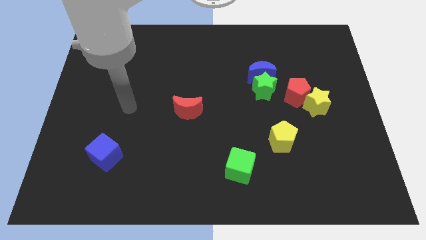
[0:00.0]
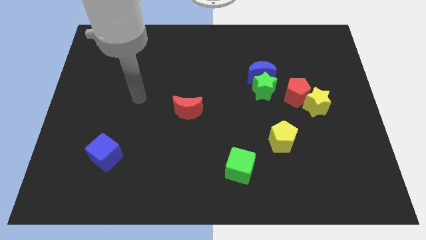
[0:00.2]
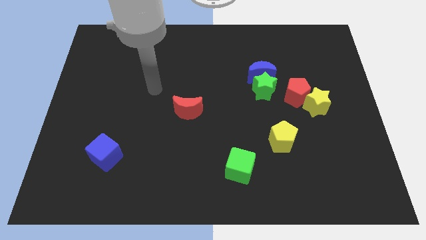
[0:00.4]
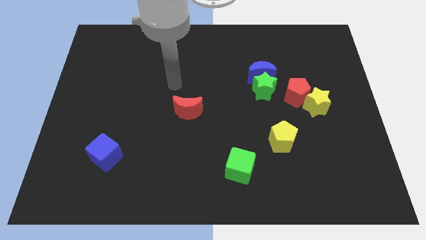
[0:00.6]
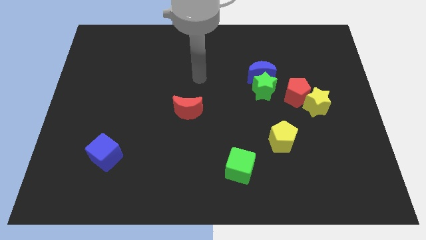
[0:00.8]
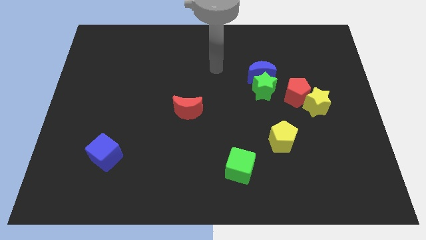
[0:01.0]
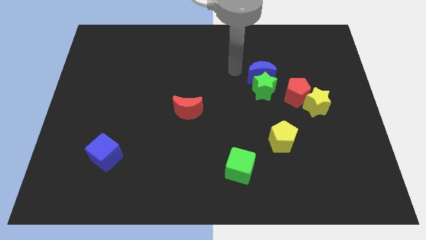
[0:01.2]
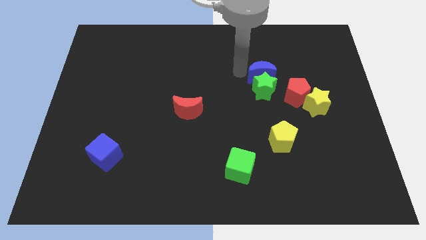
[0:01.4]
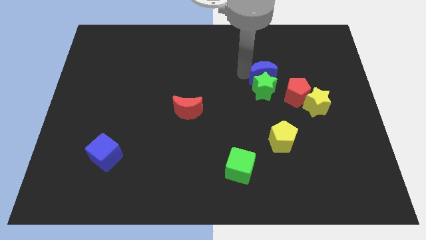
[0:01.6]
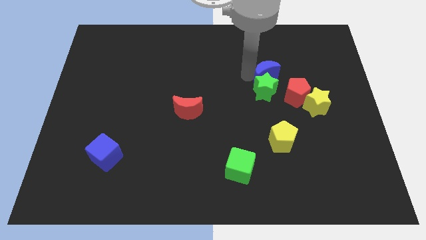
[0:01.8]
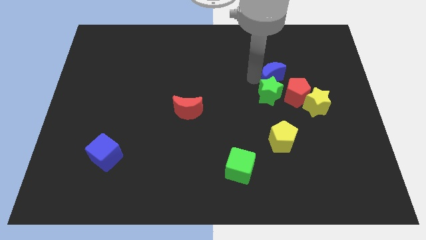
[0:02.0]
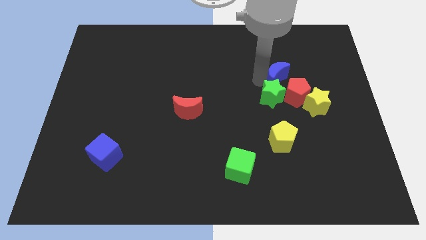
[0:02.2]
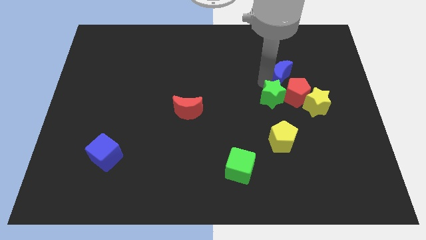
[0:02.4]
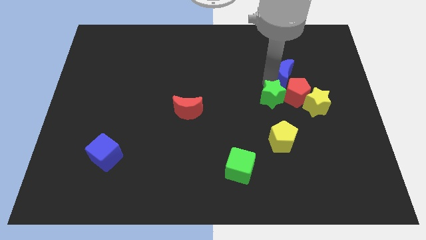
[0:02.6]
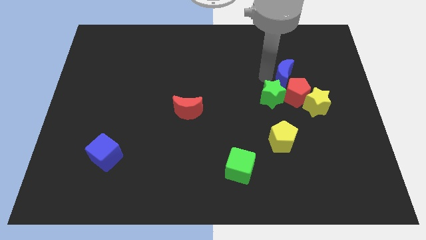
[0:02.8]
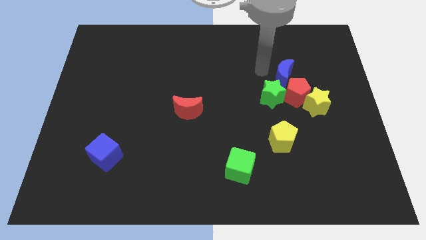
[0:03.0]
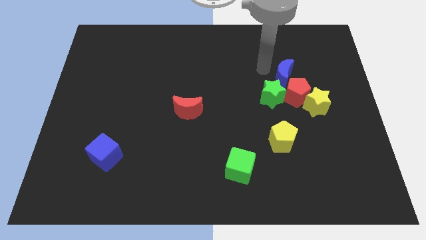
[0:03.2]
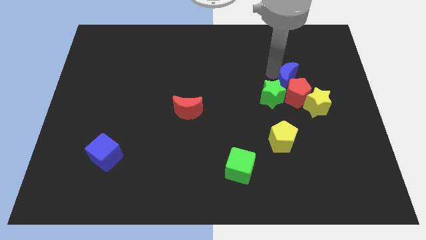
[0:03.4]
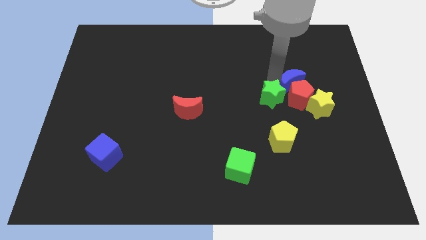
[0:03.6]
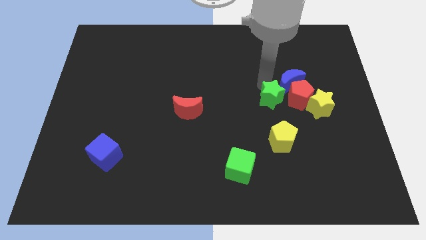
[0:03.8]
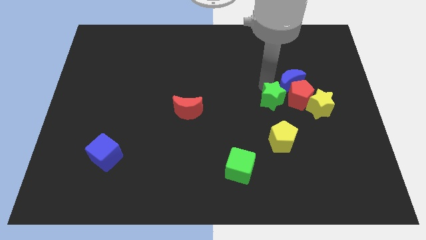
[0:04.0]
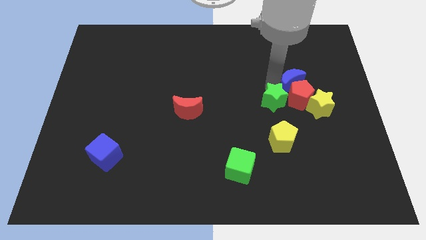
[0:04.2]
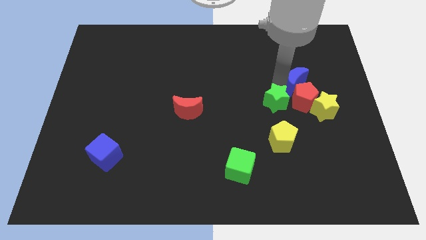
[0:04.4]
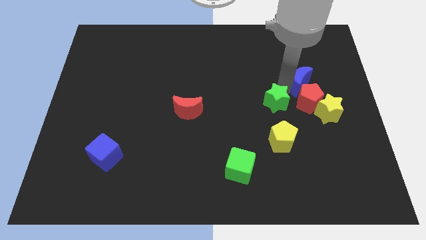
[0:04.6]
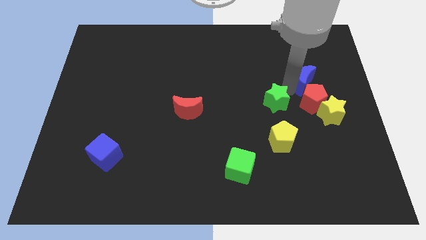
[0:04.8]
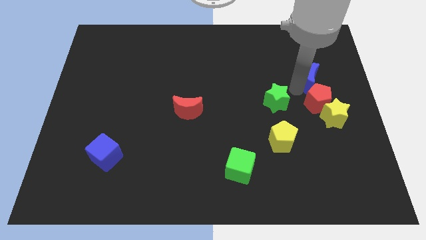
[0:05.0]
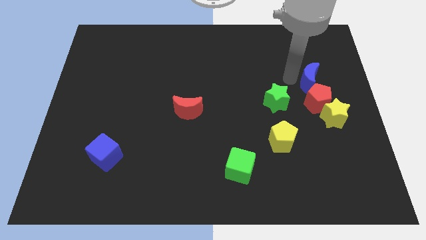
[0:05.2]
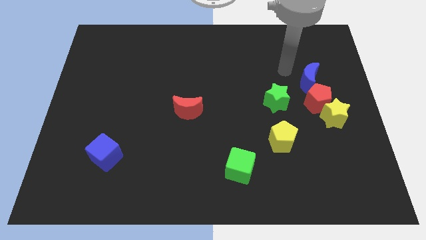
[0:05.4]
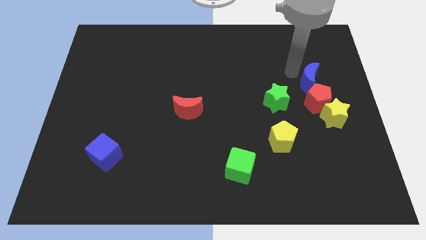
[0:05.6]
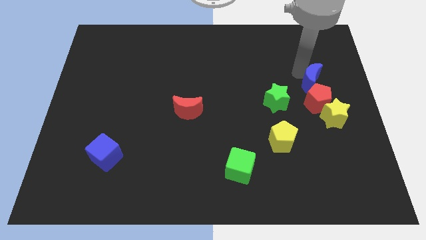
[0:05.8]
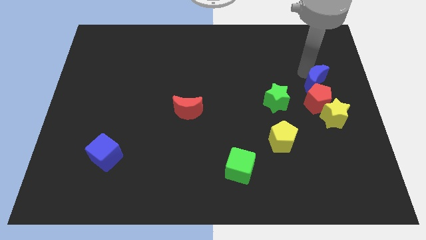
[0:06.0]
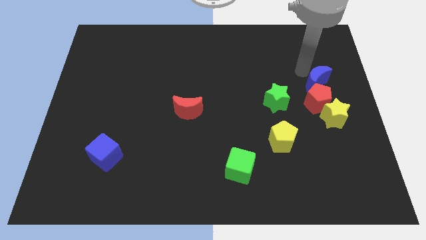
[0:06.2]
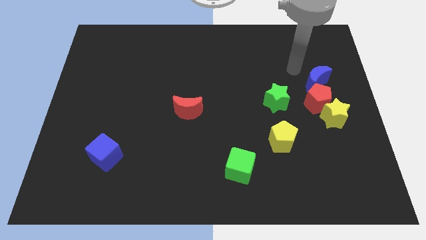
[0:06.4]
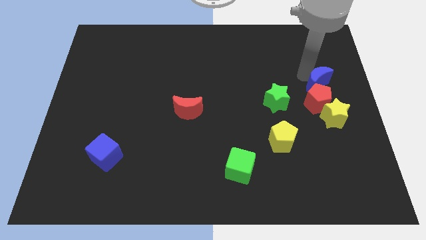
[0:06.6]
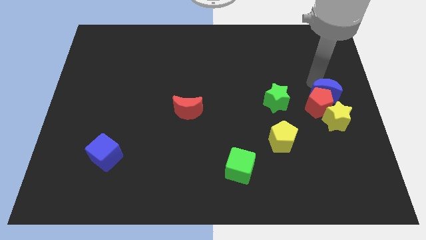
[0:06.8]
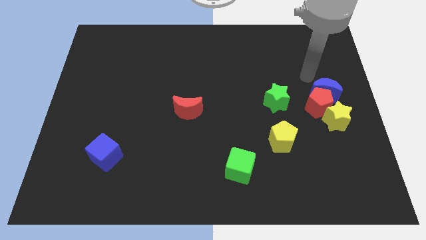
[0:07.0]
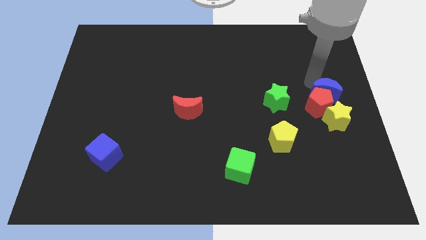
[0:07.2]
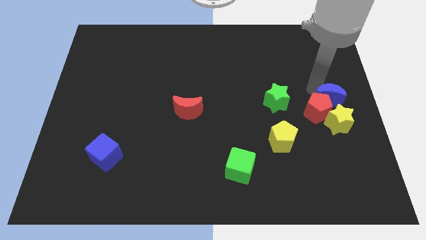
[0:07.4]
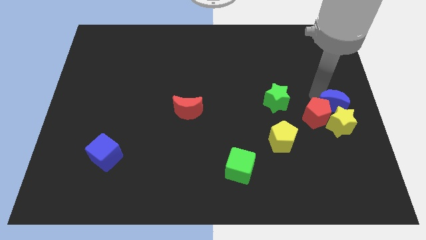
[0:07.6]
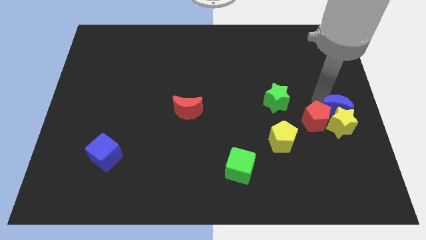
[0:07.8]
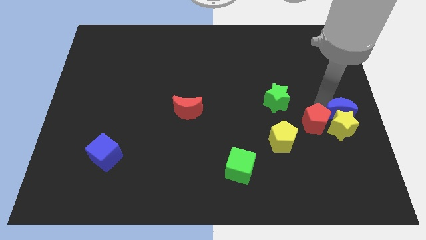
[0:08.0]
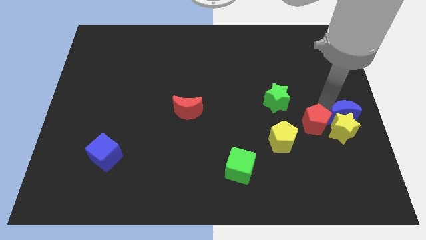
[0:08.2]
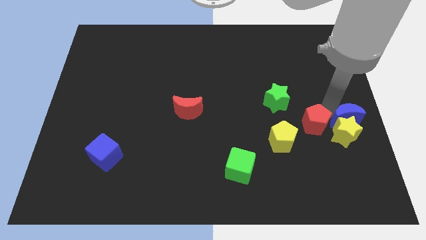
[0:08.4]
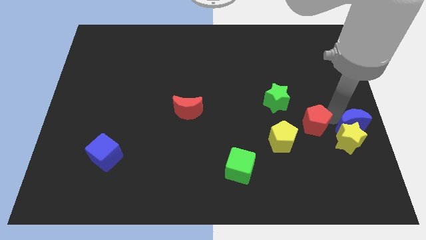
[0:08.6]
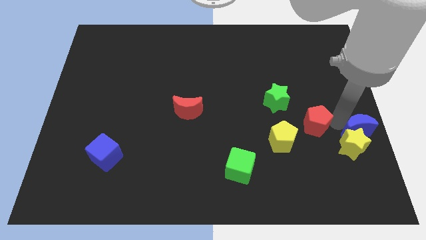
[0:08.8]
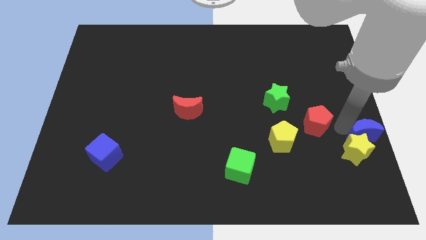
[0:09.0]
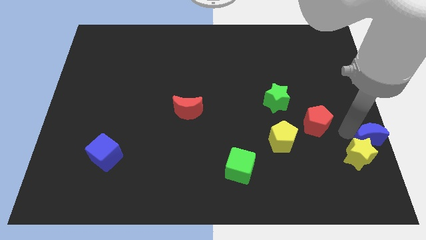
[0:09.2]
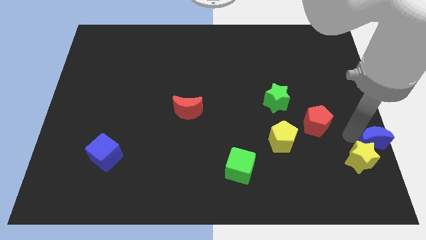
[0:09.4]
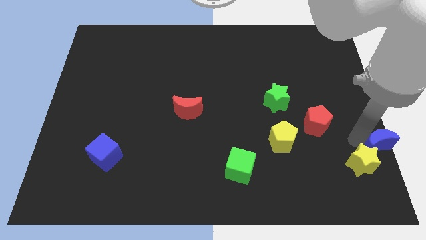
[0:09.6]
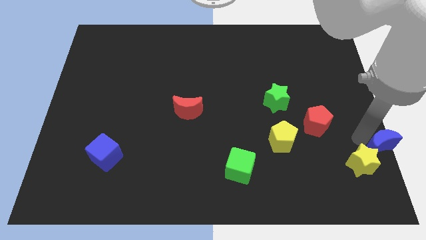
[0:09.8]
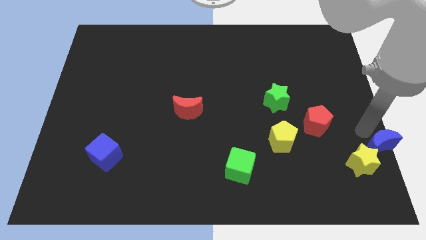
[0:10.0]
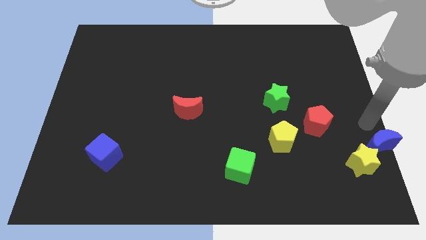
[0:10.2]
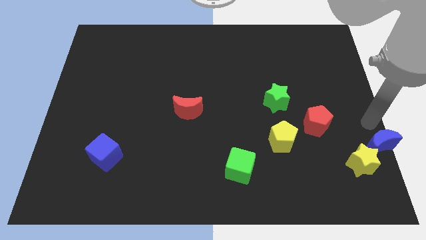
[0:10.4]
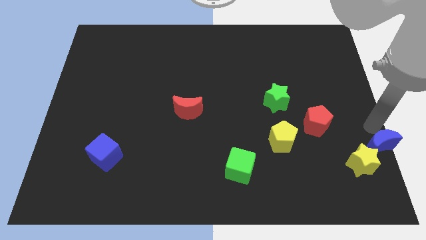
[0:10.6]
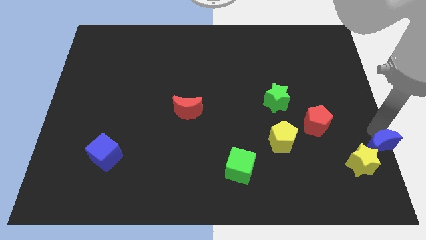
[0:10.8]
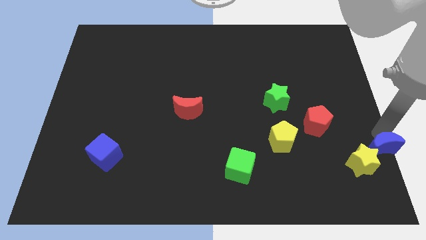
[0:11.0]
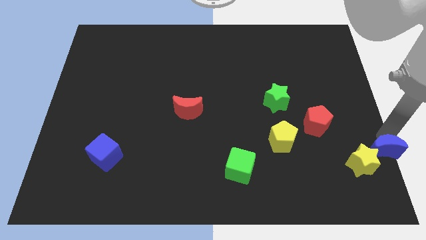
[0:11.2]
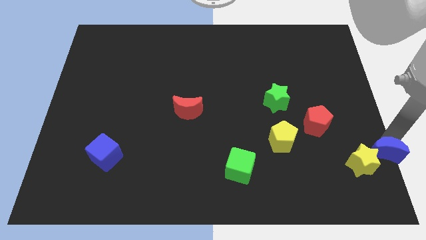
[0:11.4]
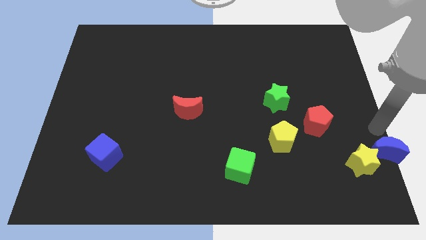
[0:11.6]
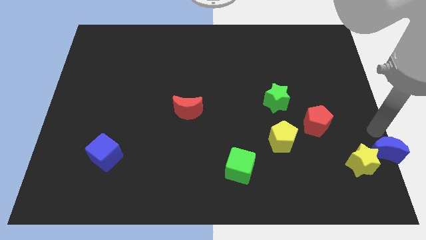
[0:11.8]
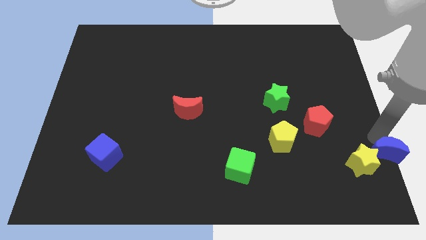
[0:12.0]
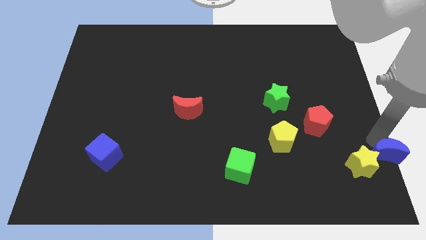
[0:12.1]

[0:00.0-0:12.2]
put the blue moon to the bottom right corner
